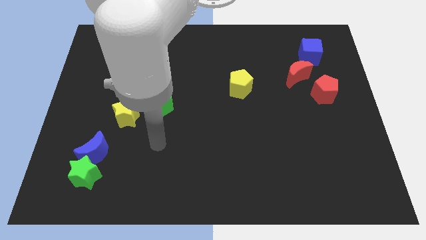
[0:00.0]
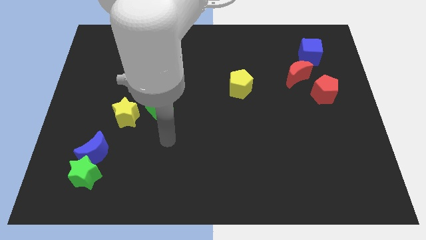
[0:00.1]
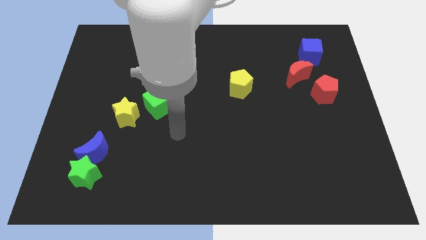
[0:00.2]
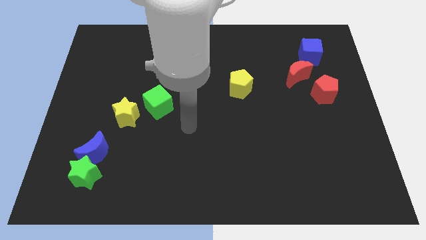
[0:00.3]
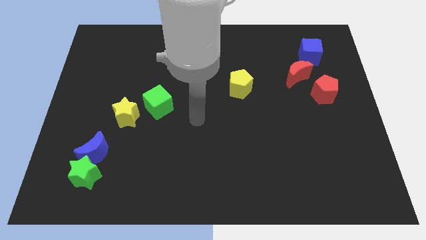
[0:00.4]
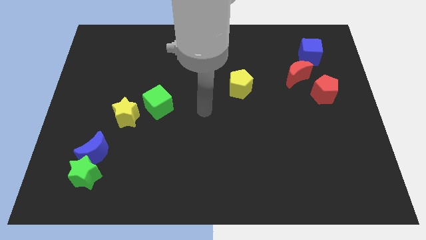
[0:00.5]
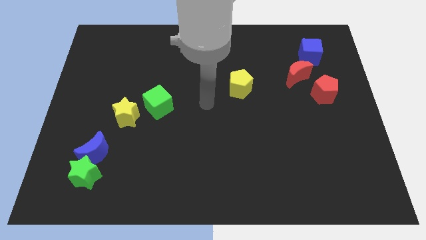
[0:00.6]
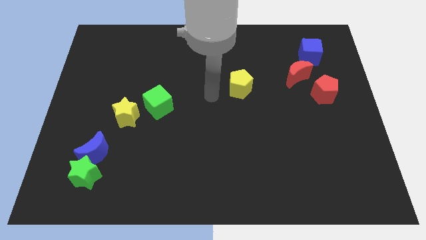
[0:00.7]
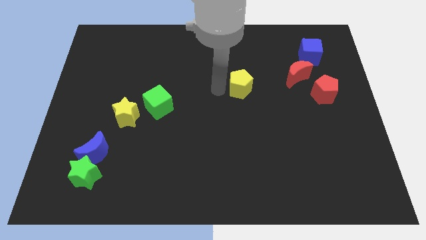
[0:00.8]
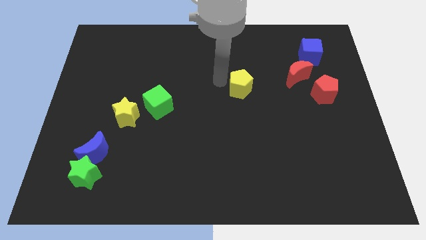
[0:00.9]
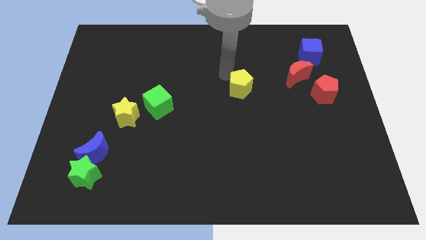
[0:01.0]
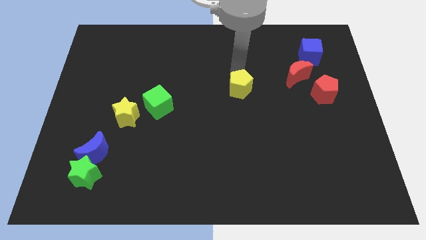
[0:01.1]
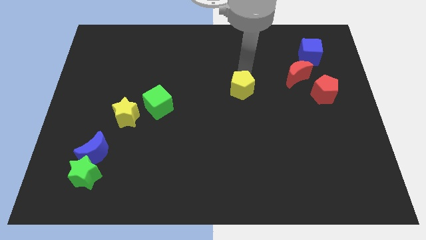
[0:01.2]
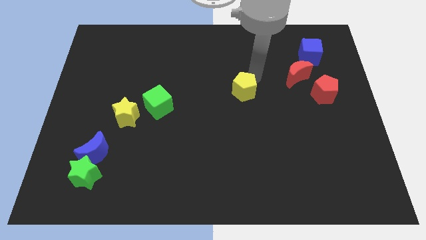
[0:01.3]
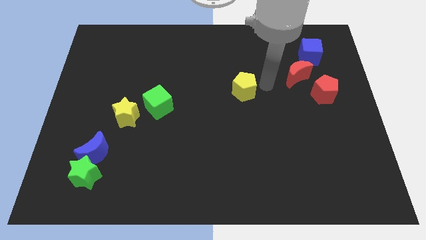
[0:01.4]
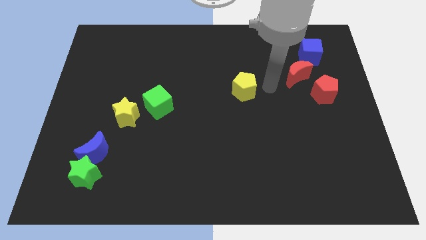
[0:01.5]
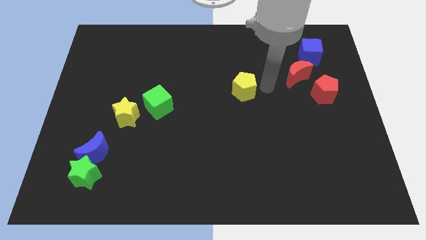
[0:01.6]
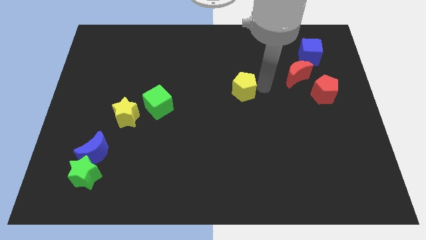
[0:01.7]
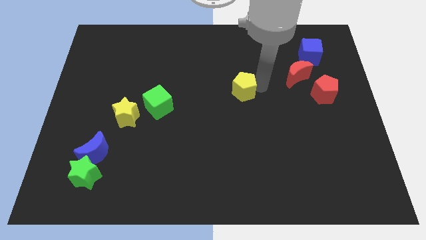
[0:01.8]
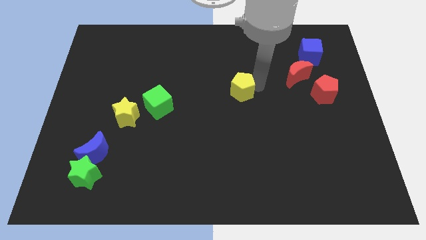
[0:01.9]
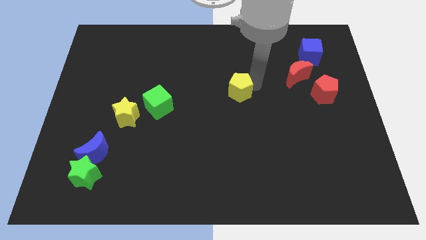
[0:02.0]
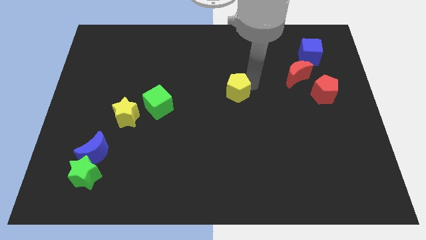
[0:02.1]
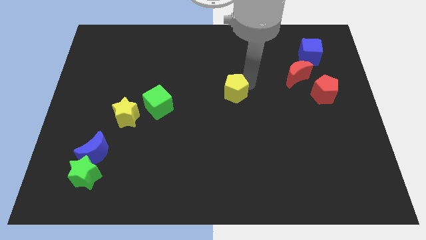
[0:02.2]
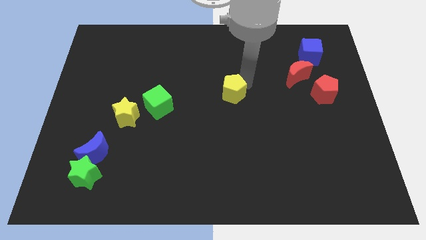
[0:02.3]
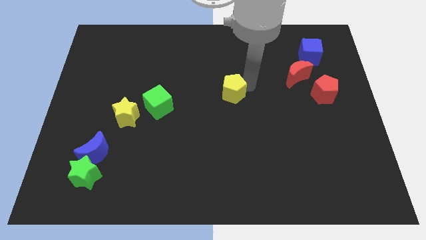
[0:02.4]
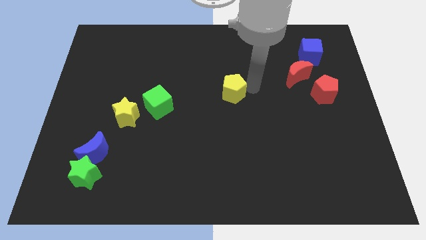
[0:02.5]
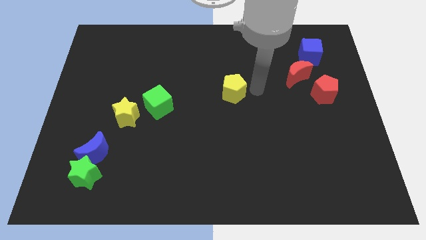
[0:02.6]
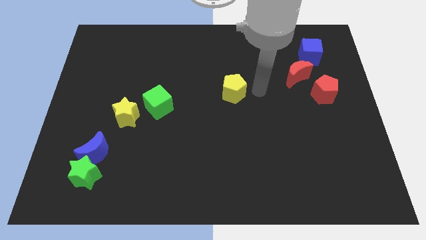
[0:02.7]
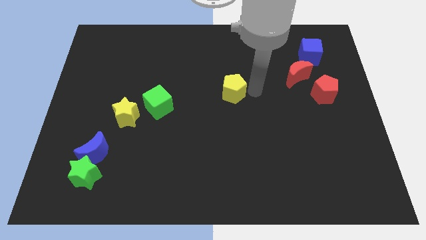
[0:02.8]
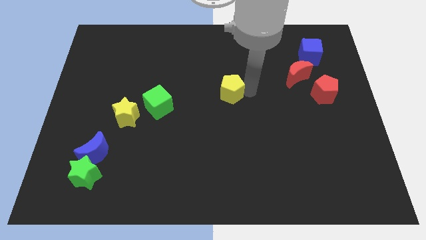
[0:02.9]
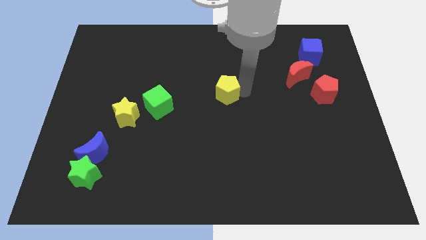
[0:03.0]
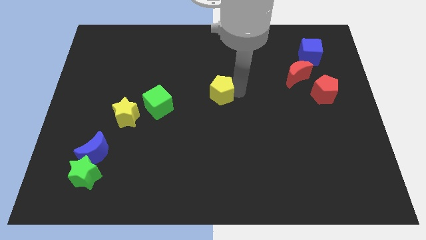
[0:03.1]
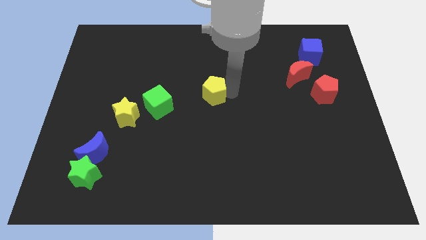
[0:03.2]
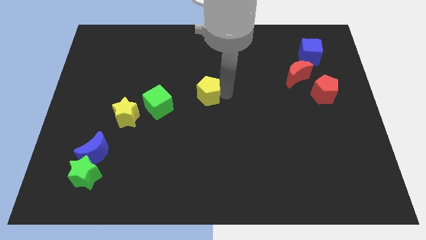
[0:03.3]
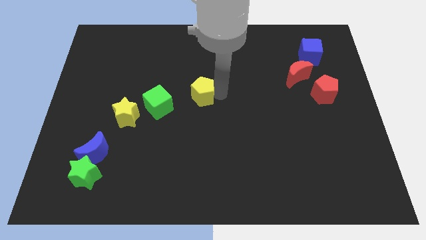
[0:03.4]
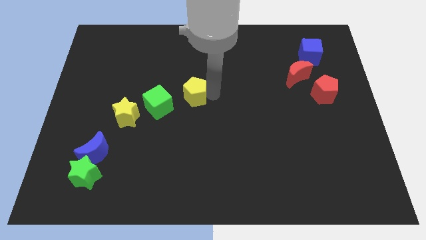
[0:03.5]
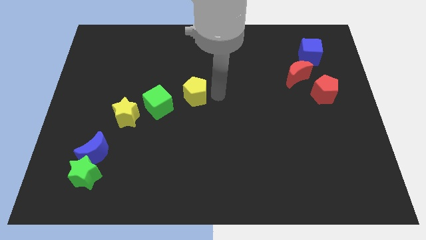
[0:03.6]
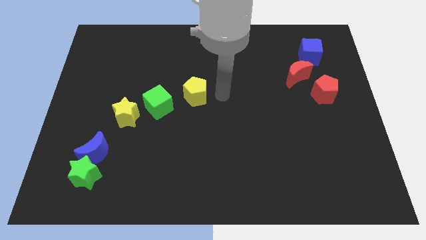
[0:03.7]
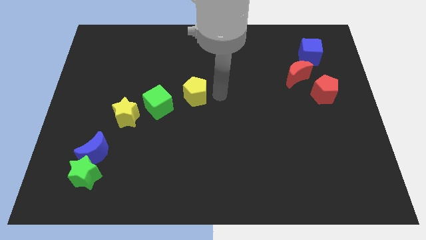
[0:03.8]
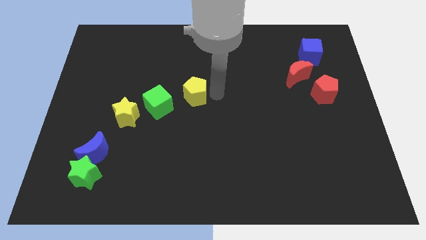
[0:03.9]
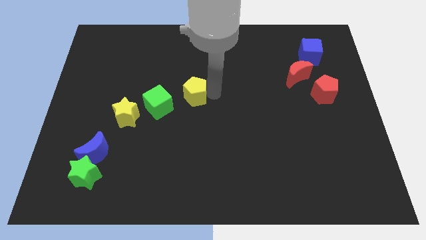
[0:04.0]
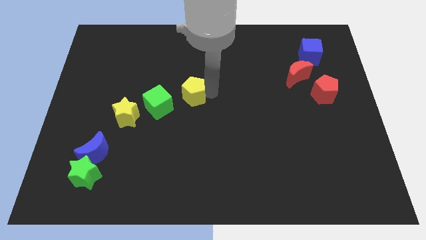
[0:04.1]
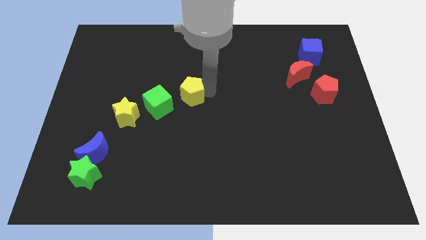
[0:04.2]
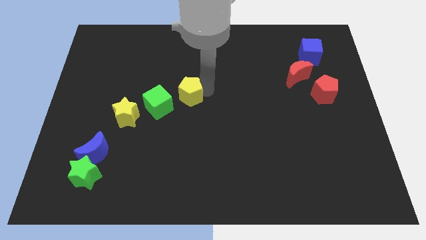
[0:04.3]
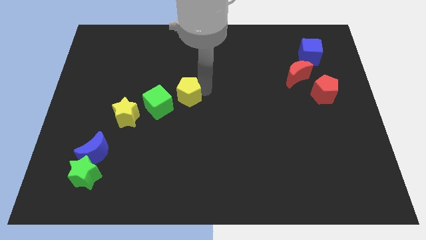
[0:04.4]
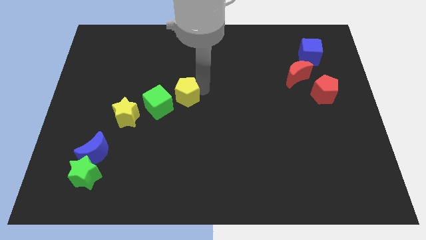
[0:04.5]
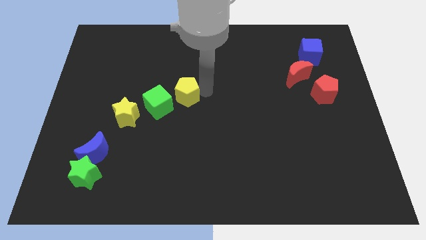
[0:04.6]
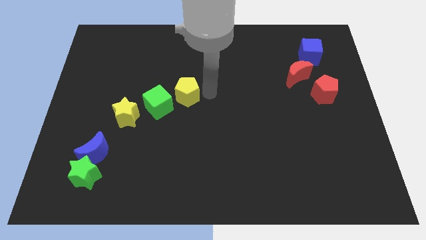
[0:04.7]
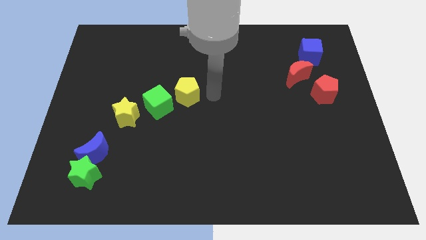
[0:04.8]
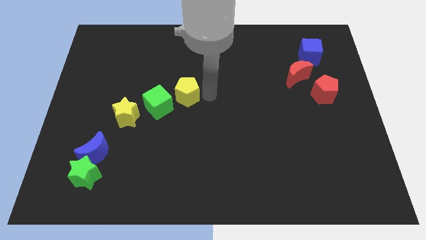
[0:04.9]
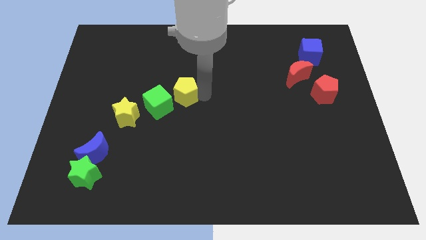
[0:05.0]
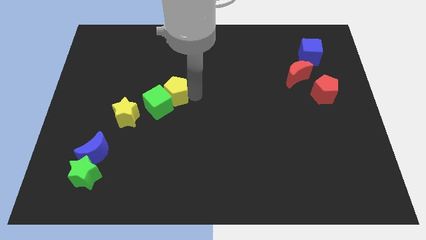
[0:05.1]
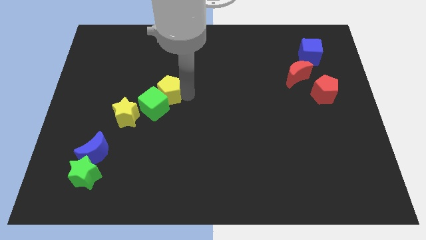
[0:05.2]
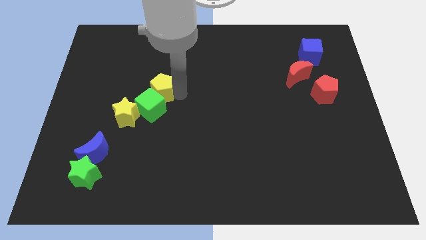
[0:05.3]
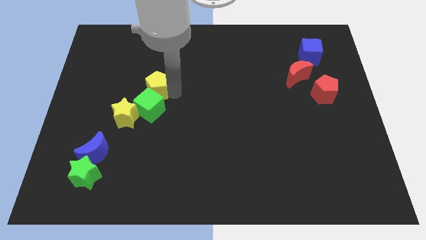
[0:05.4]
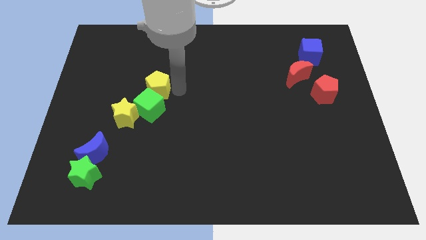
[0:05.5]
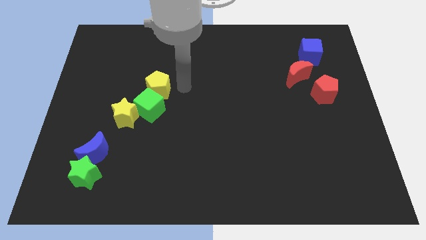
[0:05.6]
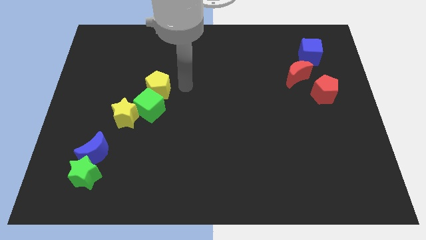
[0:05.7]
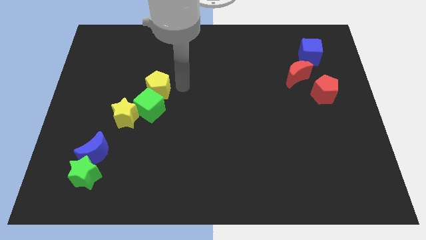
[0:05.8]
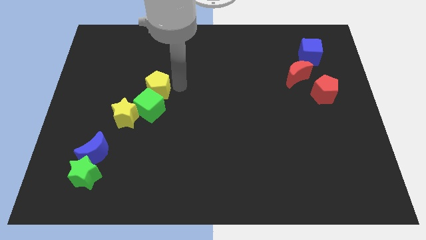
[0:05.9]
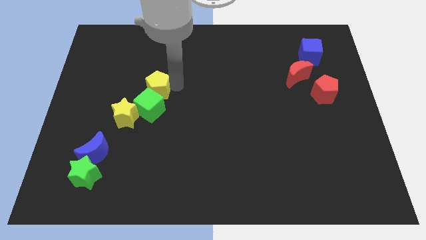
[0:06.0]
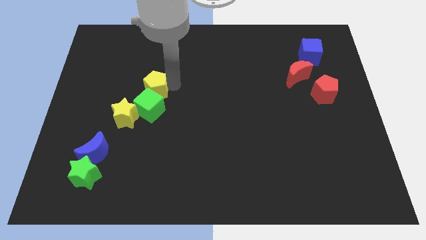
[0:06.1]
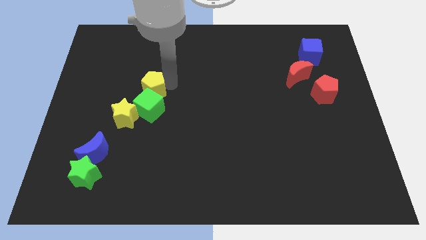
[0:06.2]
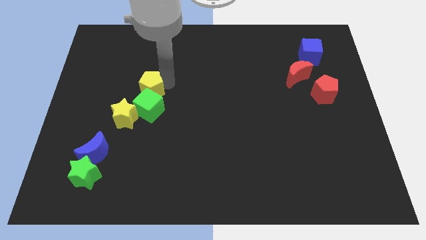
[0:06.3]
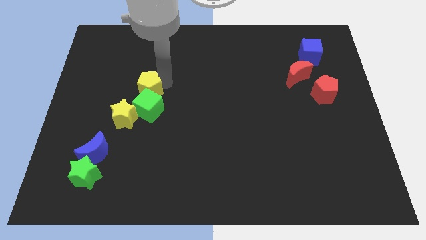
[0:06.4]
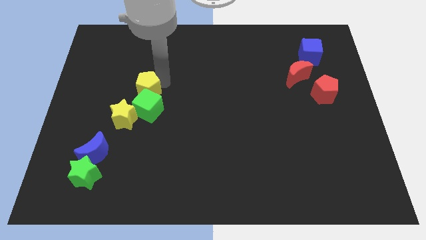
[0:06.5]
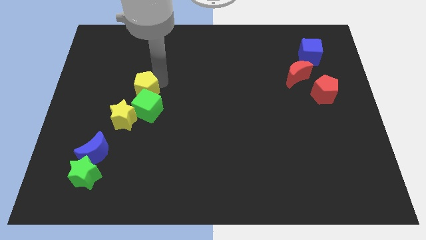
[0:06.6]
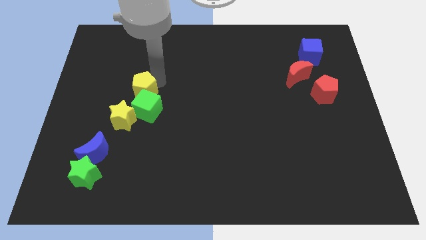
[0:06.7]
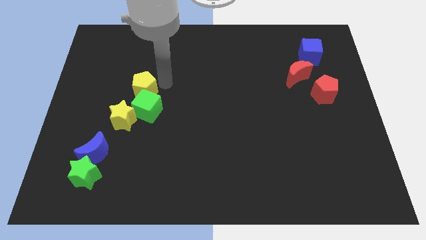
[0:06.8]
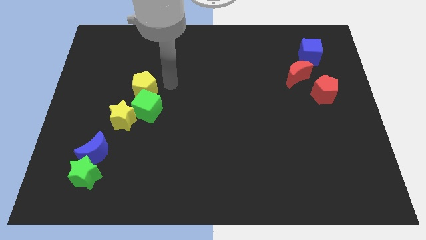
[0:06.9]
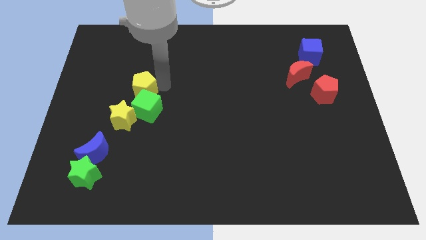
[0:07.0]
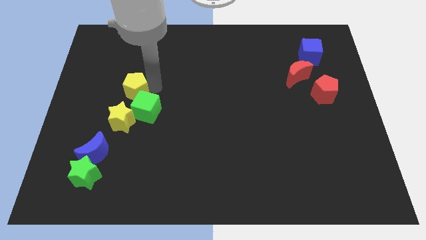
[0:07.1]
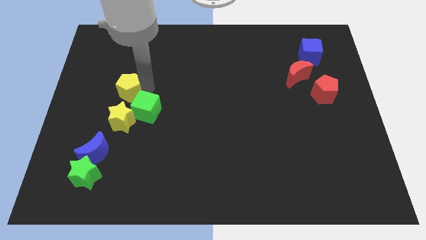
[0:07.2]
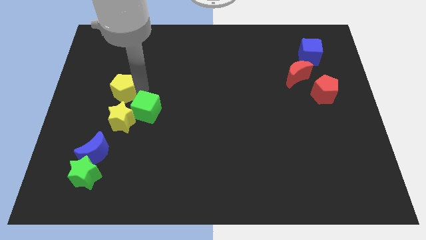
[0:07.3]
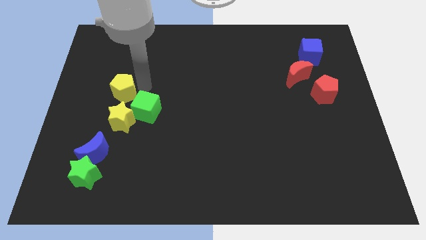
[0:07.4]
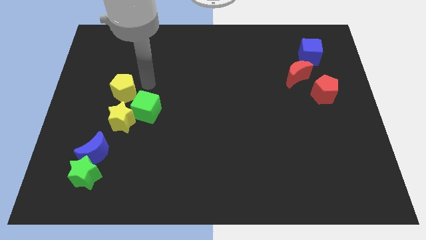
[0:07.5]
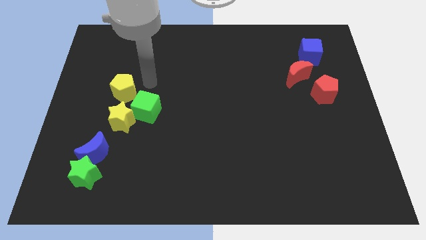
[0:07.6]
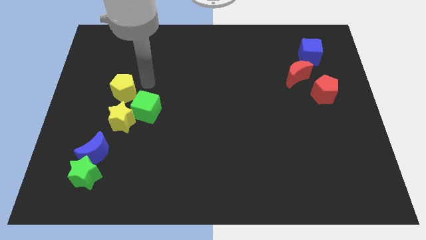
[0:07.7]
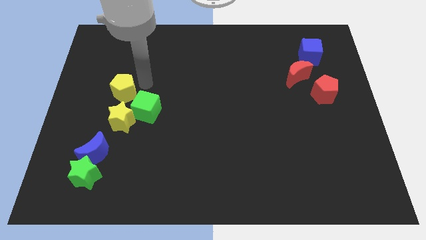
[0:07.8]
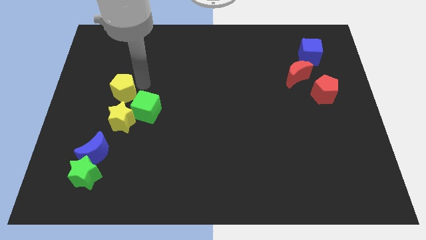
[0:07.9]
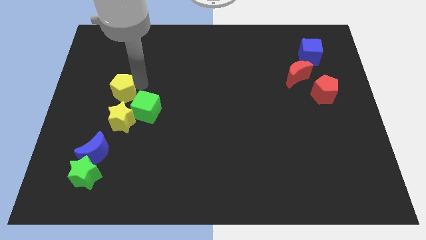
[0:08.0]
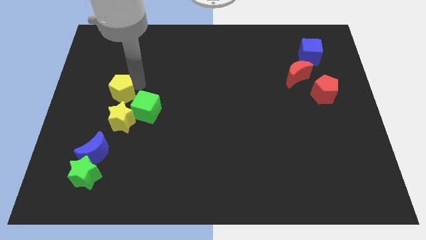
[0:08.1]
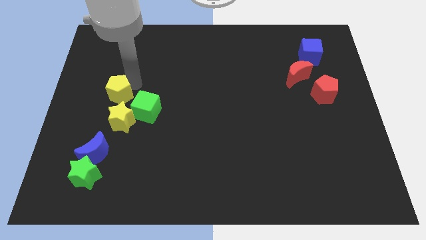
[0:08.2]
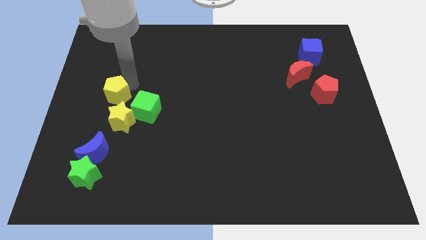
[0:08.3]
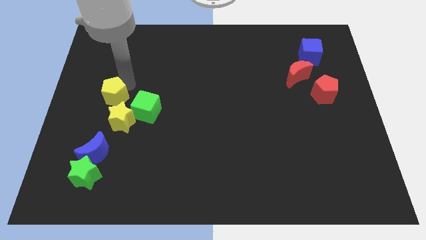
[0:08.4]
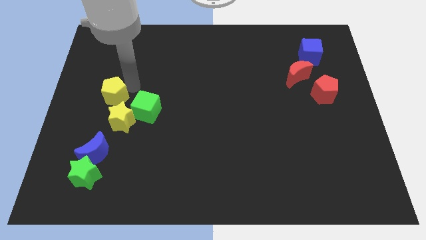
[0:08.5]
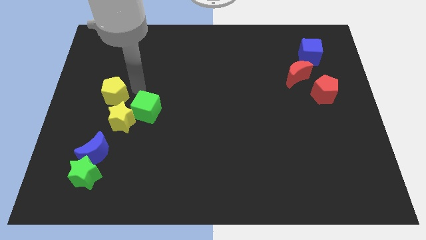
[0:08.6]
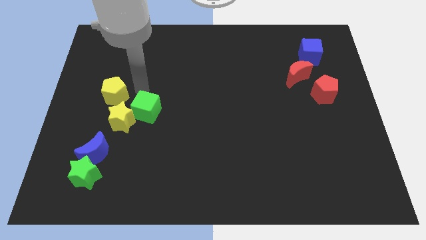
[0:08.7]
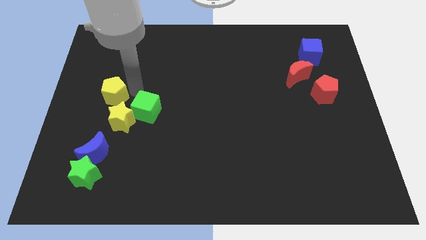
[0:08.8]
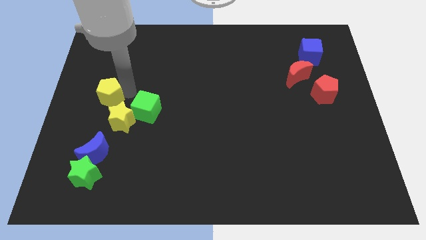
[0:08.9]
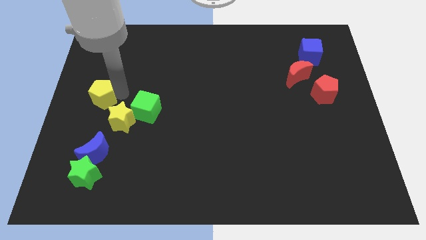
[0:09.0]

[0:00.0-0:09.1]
slide the yellow pentagon to the center left
